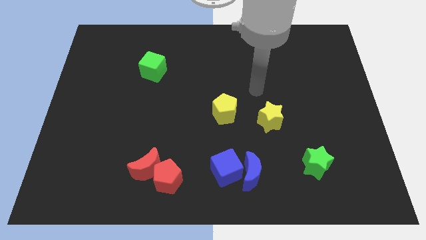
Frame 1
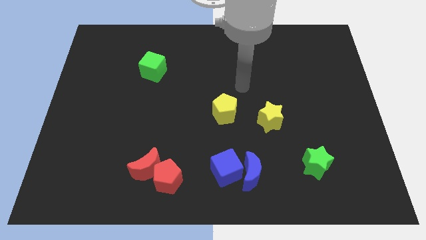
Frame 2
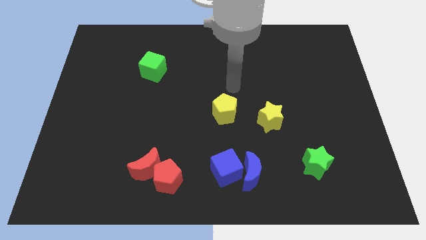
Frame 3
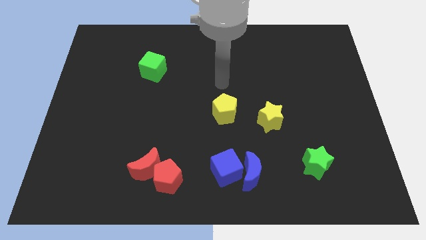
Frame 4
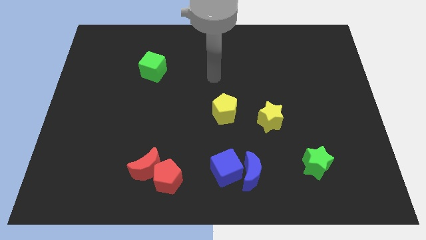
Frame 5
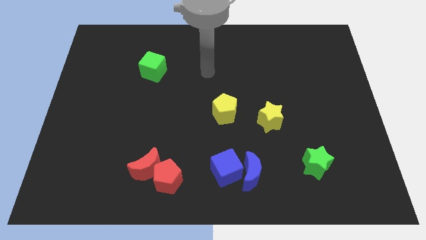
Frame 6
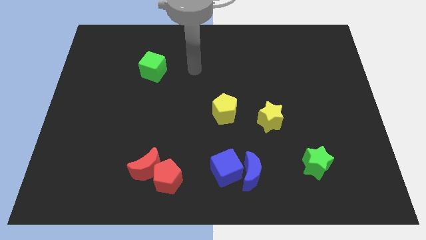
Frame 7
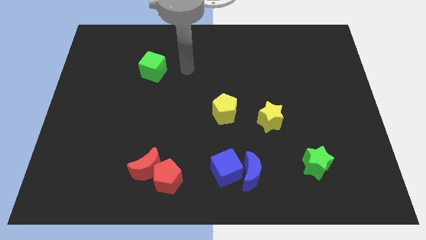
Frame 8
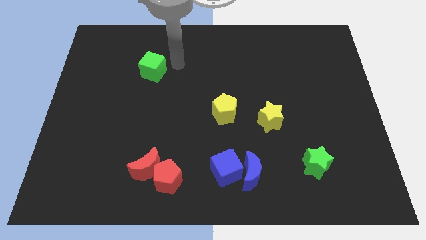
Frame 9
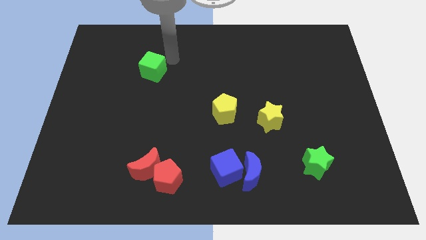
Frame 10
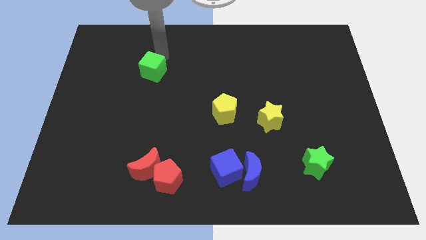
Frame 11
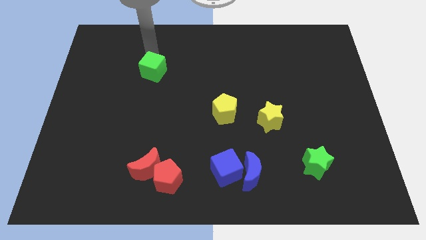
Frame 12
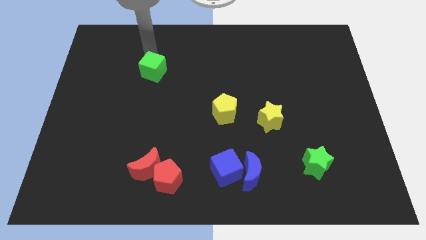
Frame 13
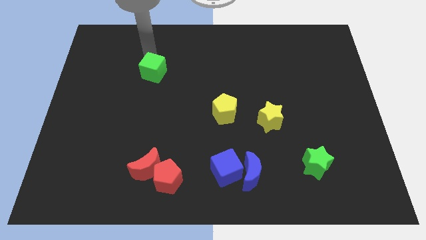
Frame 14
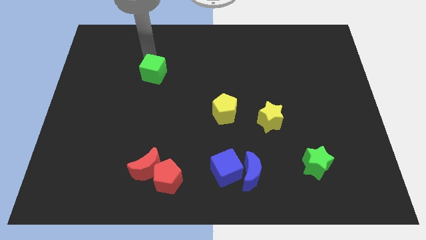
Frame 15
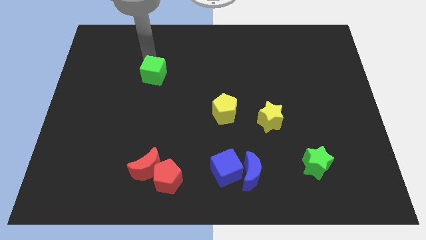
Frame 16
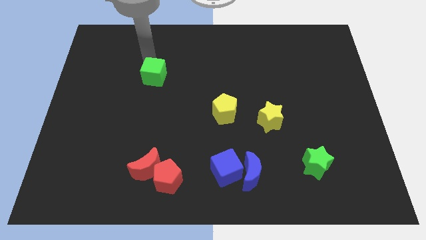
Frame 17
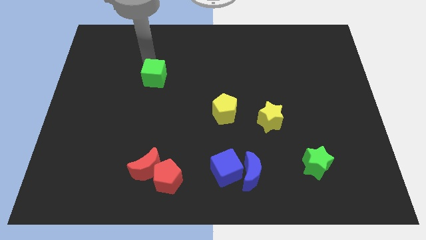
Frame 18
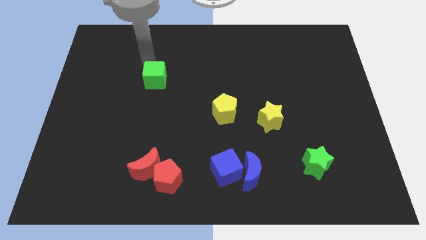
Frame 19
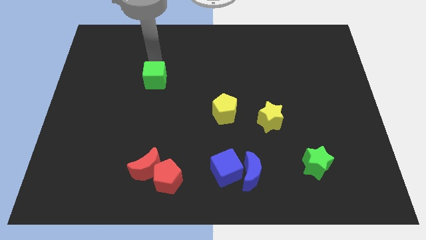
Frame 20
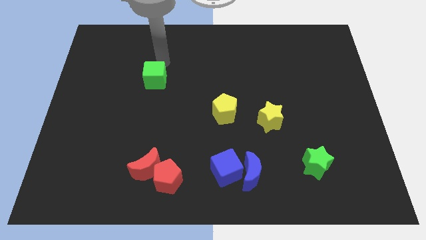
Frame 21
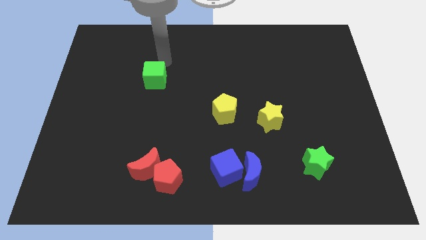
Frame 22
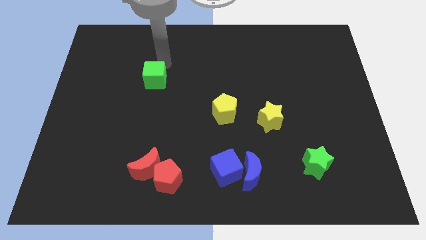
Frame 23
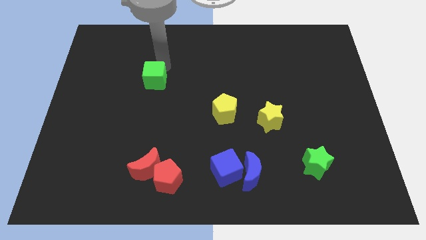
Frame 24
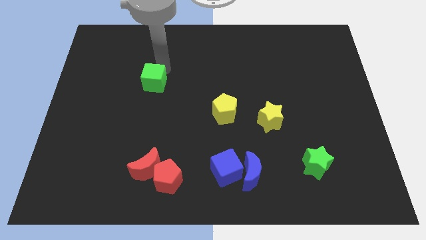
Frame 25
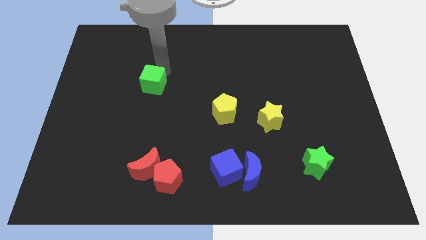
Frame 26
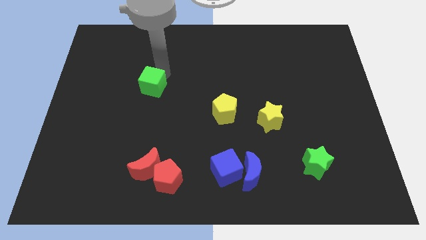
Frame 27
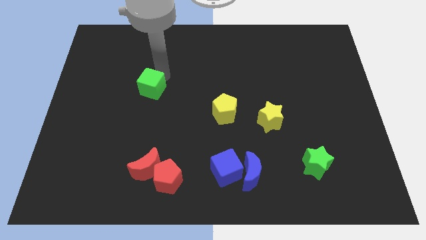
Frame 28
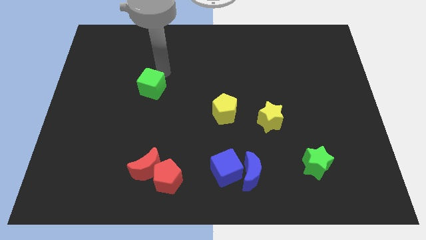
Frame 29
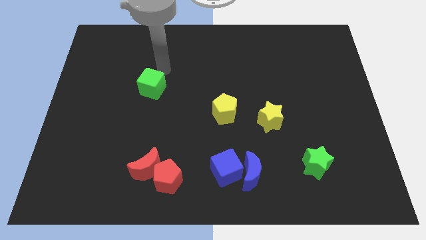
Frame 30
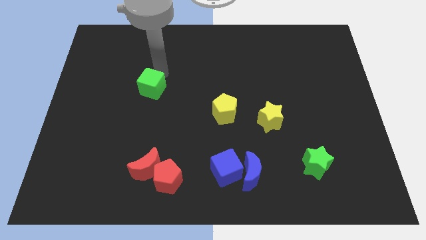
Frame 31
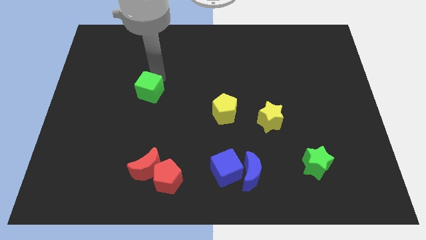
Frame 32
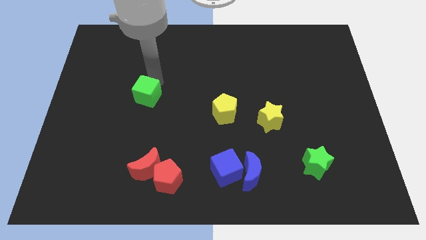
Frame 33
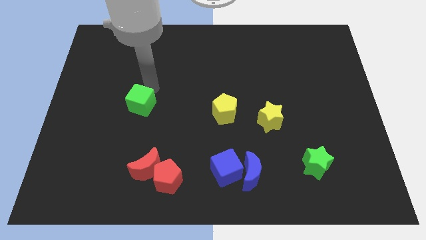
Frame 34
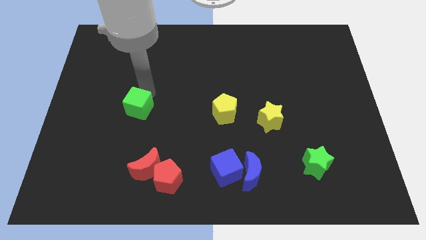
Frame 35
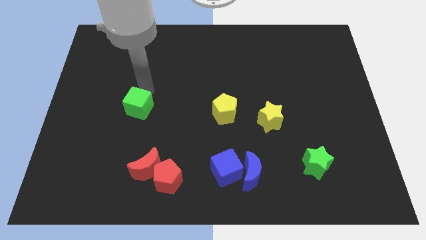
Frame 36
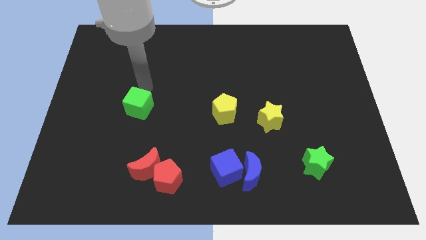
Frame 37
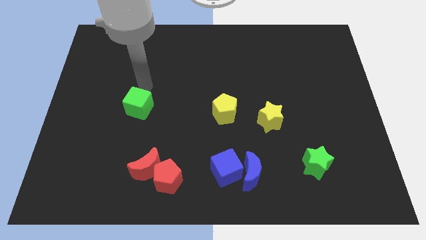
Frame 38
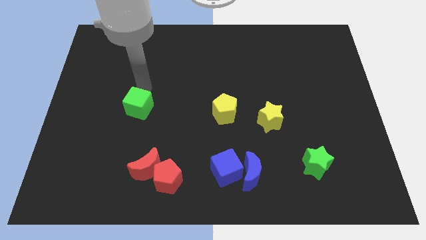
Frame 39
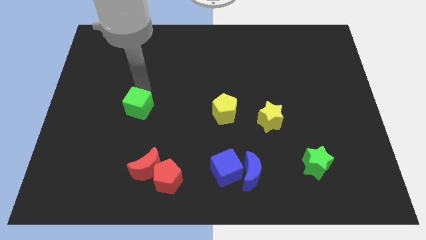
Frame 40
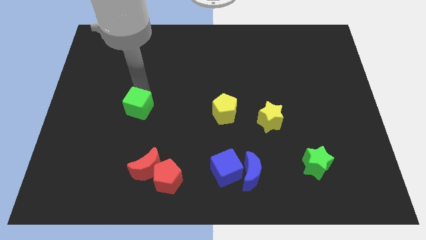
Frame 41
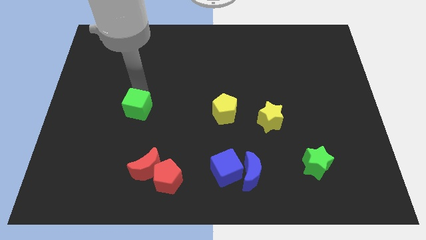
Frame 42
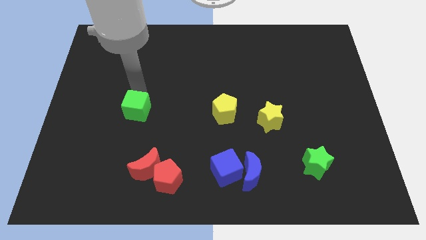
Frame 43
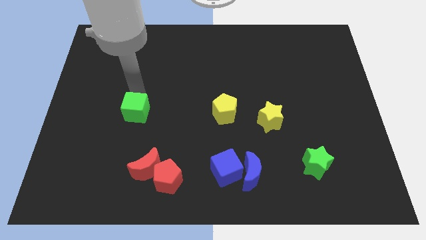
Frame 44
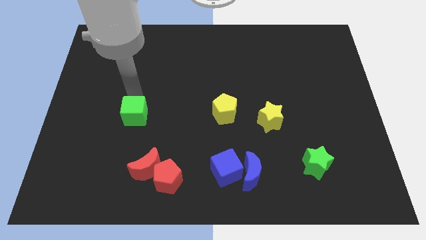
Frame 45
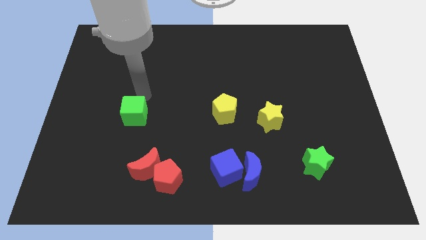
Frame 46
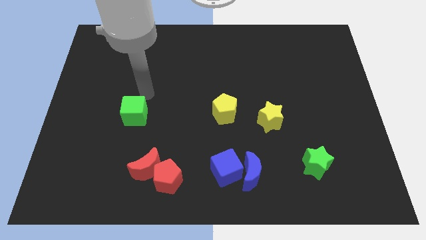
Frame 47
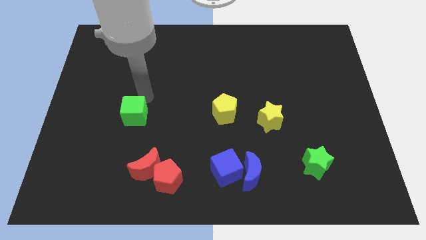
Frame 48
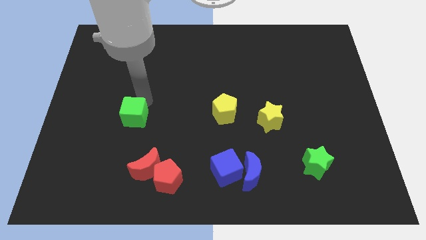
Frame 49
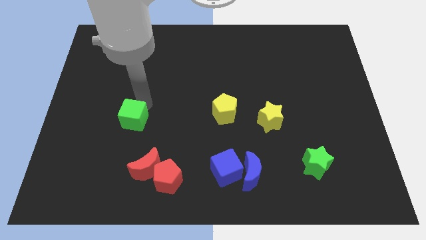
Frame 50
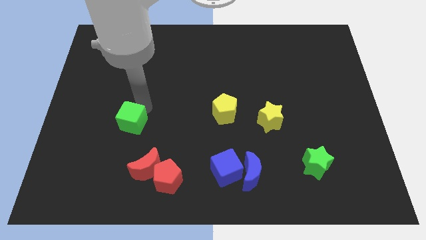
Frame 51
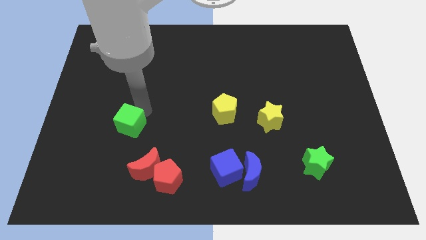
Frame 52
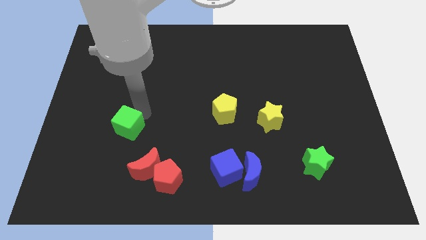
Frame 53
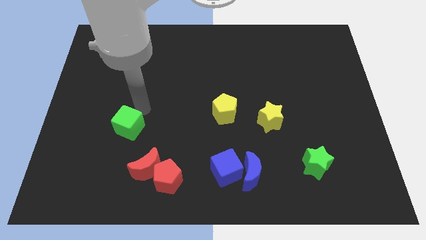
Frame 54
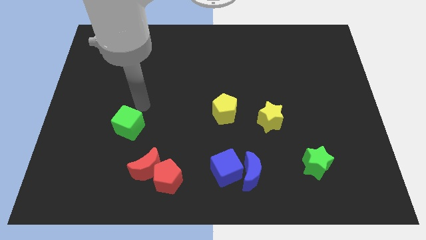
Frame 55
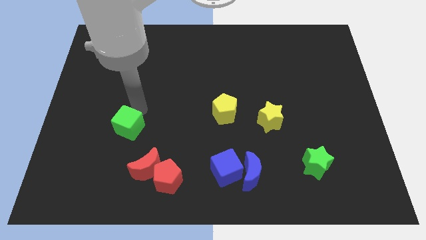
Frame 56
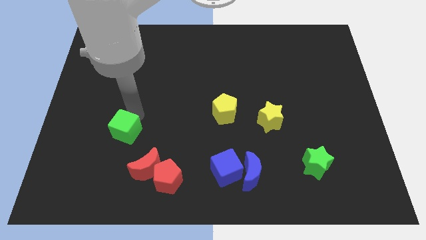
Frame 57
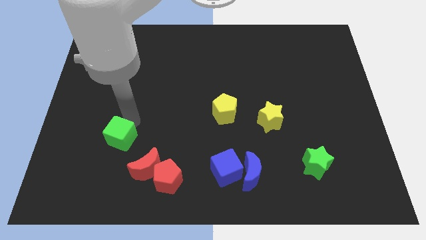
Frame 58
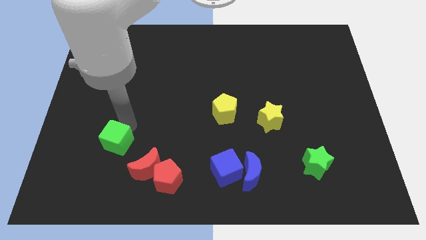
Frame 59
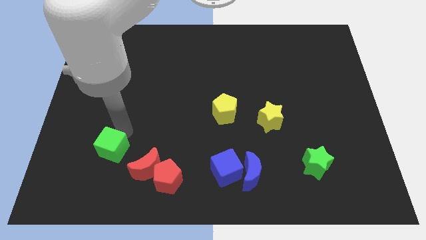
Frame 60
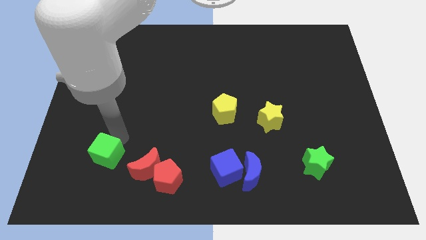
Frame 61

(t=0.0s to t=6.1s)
put the green cube to the left side of the red moon
